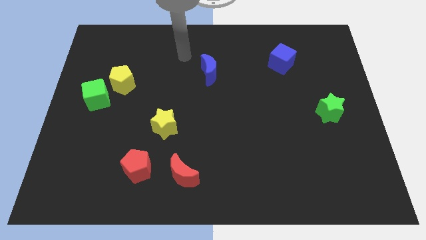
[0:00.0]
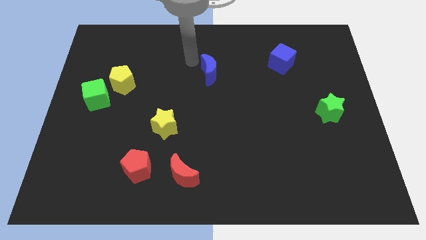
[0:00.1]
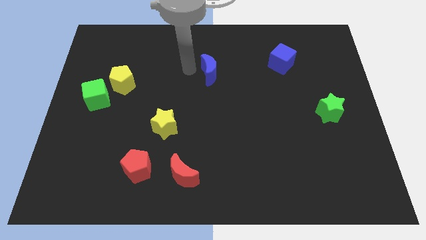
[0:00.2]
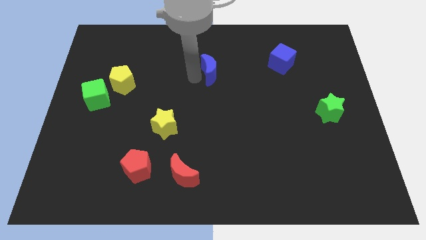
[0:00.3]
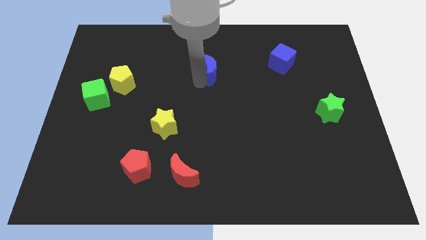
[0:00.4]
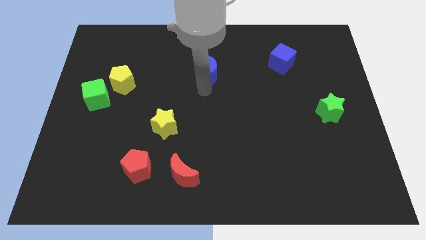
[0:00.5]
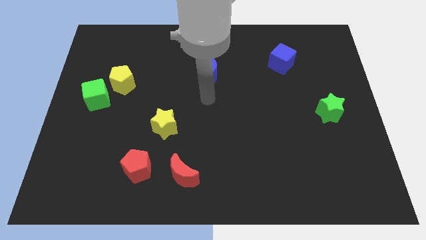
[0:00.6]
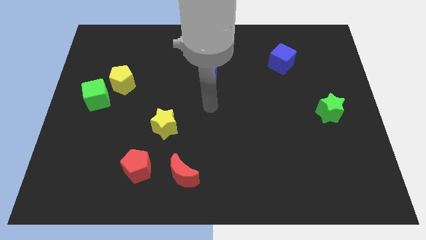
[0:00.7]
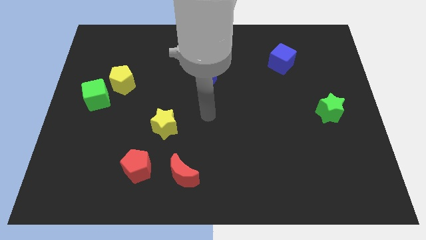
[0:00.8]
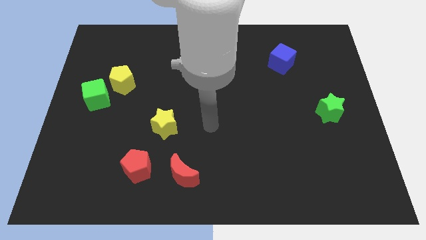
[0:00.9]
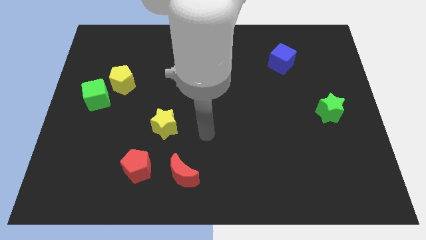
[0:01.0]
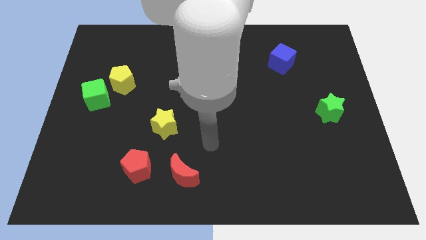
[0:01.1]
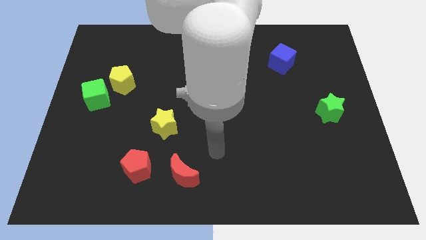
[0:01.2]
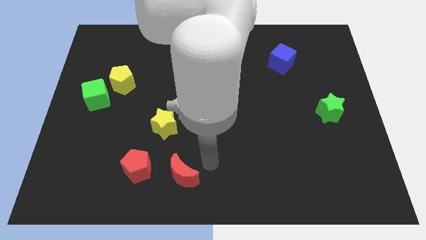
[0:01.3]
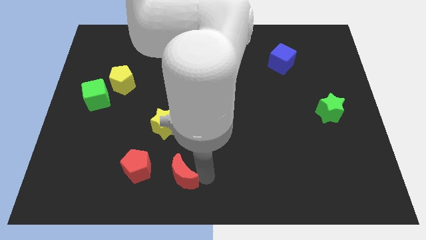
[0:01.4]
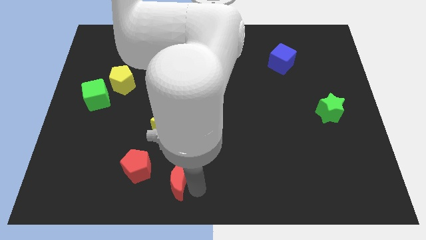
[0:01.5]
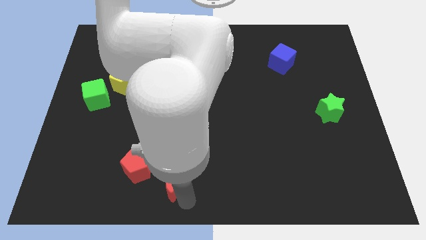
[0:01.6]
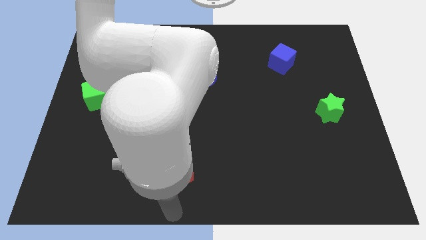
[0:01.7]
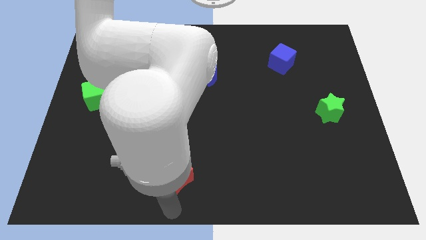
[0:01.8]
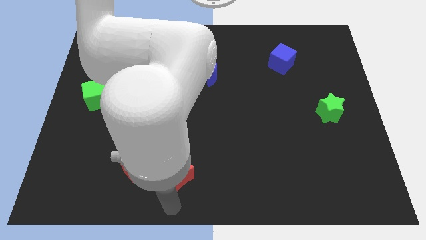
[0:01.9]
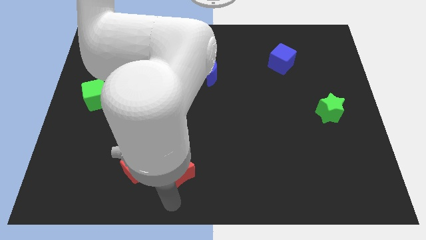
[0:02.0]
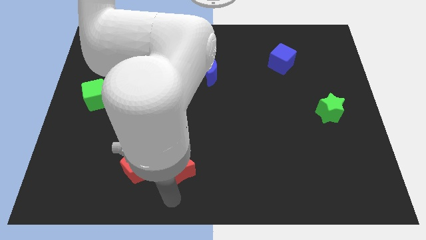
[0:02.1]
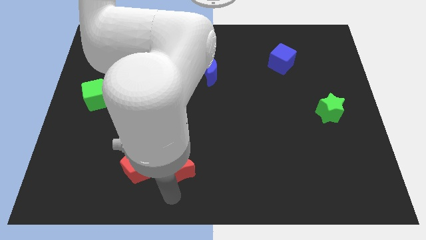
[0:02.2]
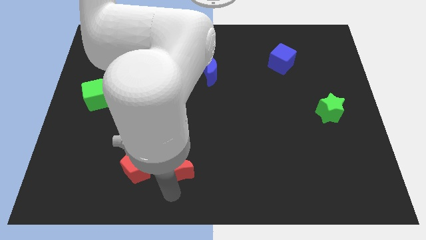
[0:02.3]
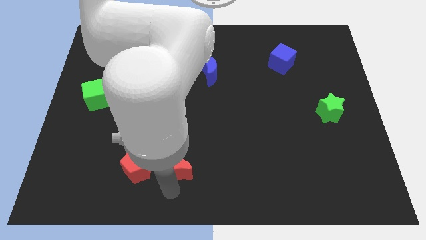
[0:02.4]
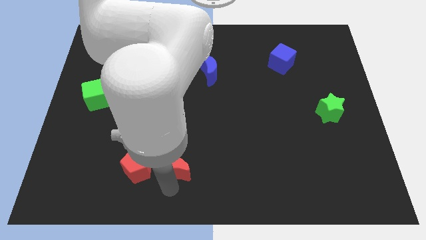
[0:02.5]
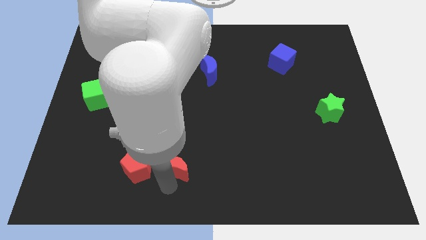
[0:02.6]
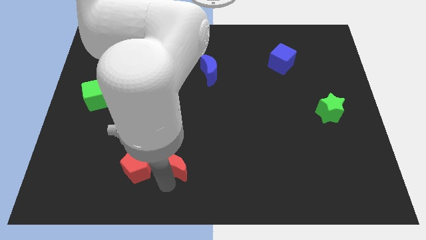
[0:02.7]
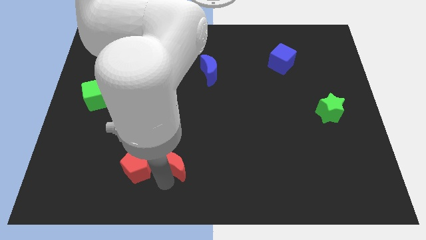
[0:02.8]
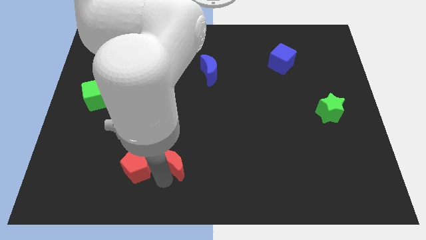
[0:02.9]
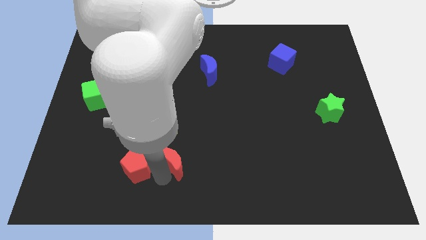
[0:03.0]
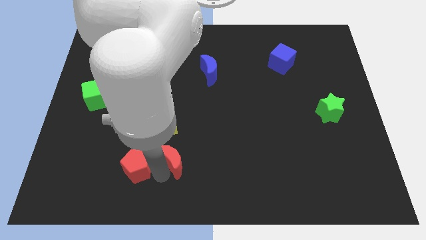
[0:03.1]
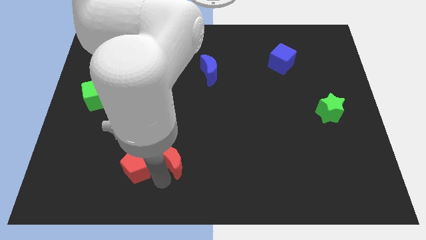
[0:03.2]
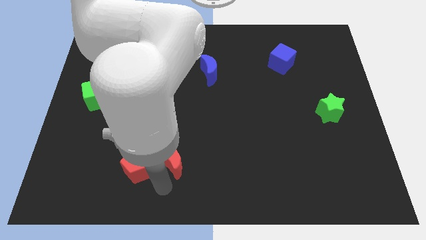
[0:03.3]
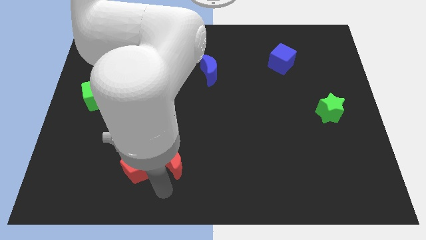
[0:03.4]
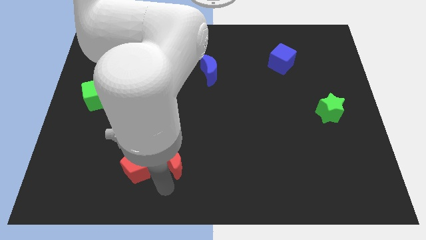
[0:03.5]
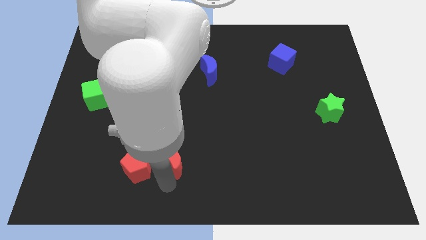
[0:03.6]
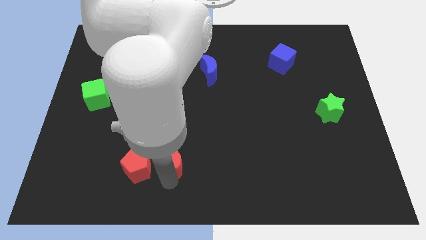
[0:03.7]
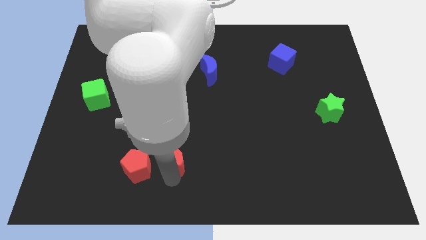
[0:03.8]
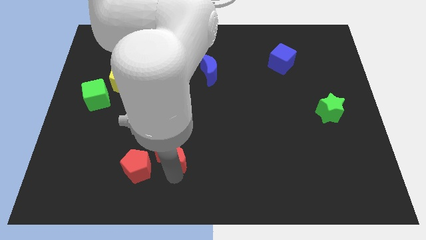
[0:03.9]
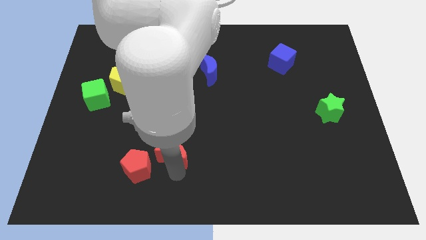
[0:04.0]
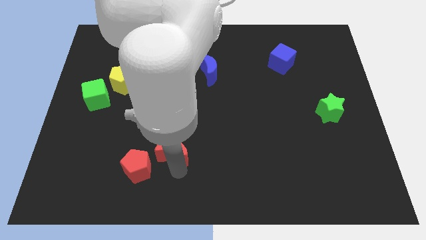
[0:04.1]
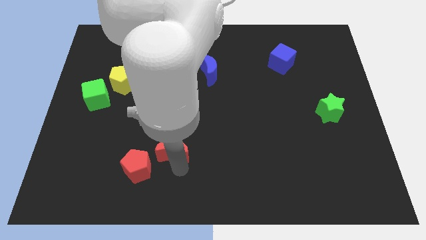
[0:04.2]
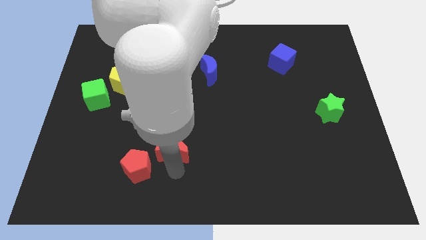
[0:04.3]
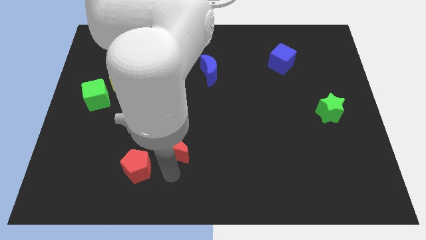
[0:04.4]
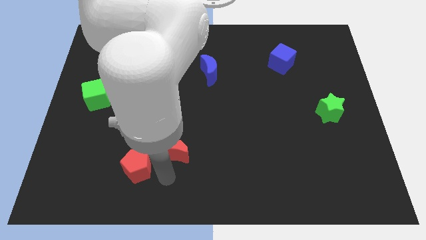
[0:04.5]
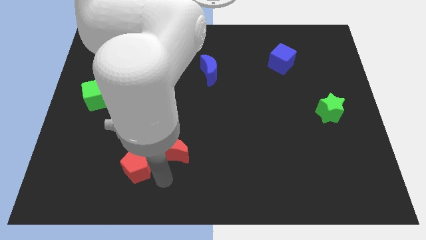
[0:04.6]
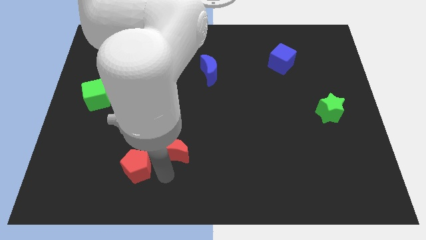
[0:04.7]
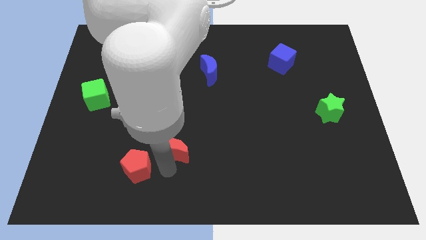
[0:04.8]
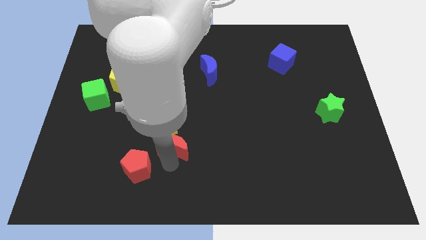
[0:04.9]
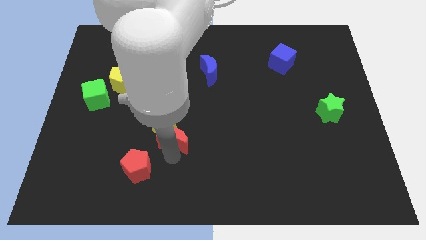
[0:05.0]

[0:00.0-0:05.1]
slide the red moon slightly up

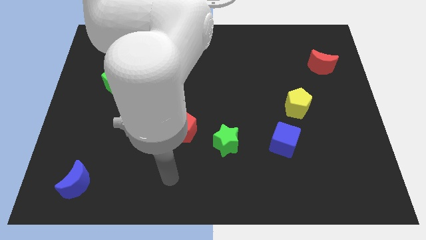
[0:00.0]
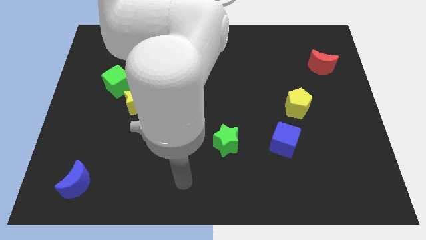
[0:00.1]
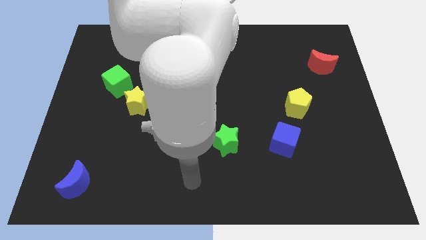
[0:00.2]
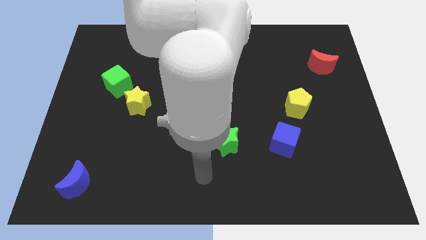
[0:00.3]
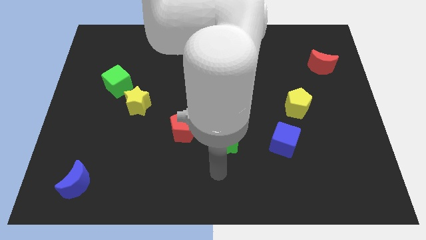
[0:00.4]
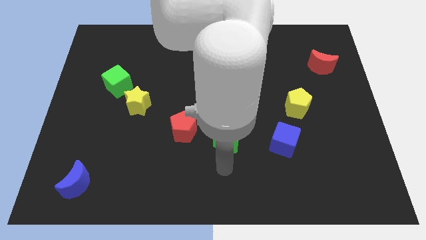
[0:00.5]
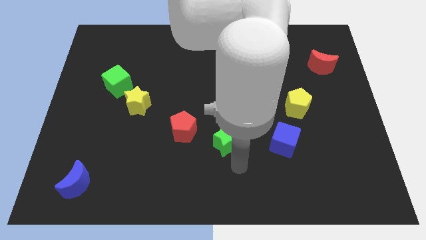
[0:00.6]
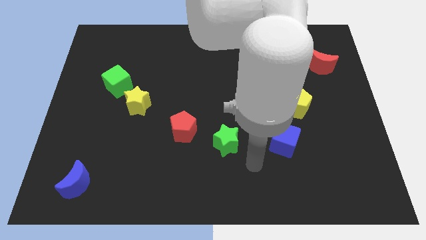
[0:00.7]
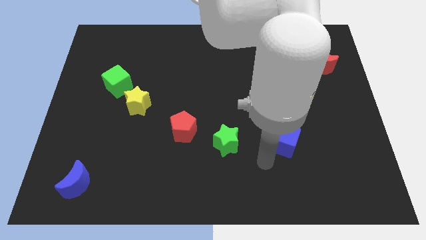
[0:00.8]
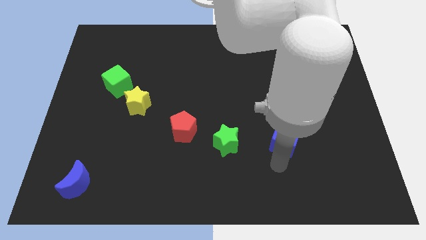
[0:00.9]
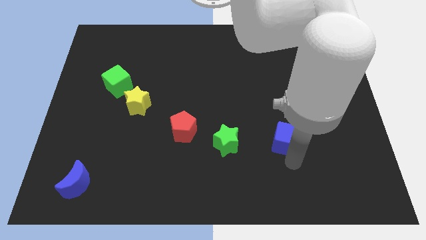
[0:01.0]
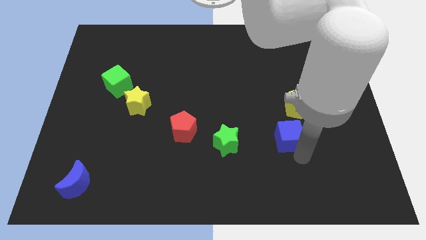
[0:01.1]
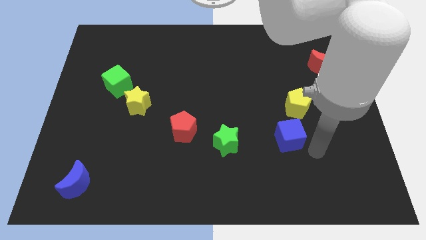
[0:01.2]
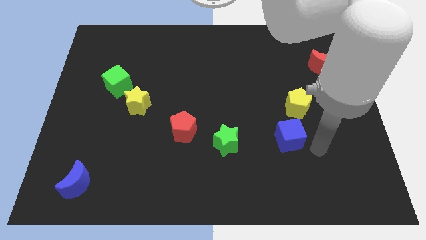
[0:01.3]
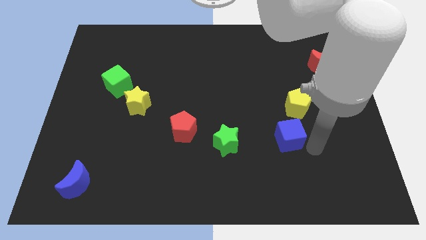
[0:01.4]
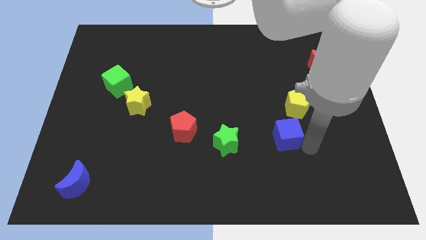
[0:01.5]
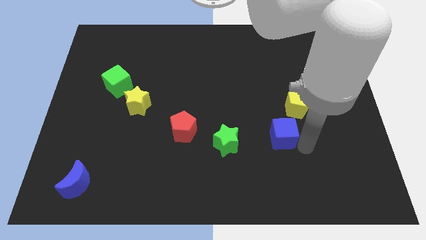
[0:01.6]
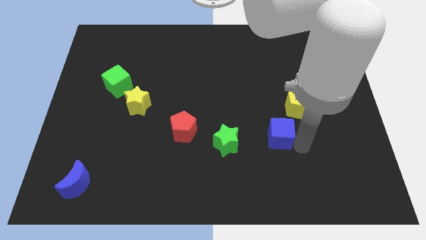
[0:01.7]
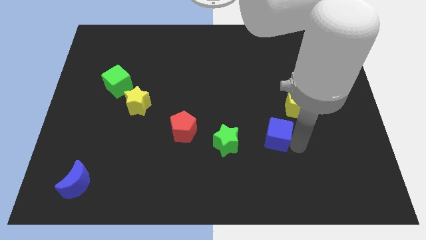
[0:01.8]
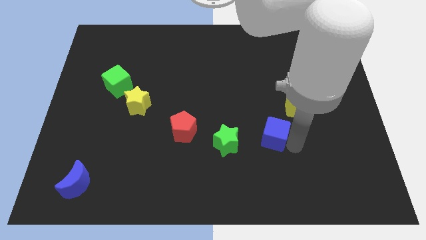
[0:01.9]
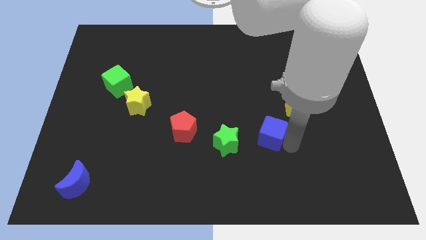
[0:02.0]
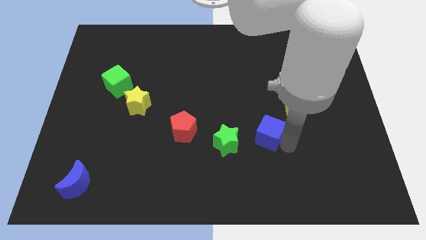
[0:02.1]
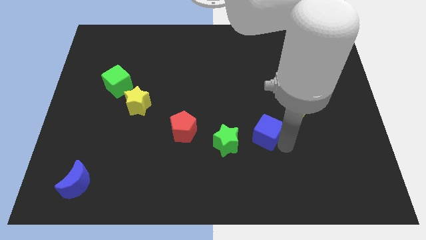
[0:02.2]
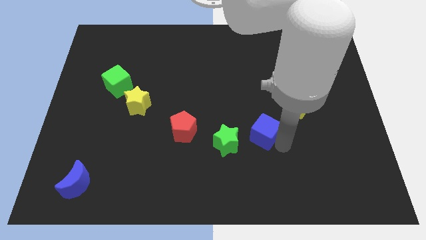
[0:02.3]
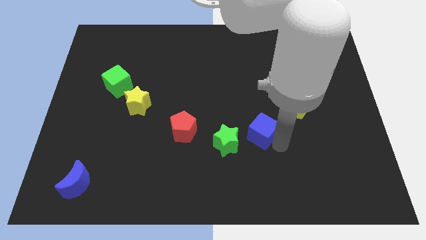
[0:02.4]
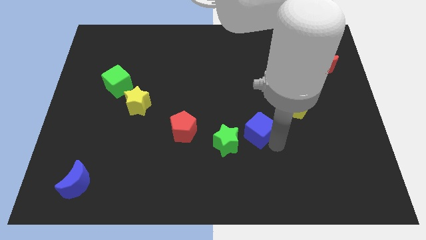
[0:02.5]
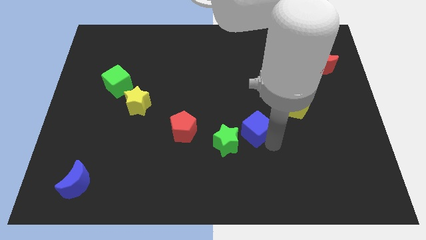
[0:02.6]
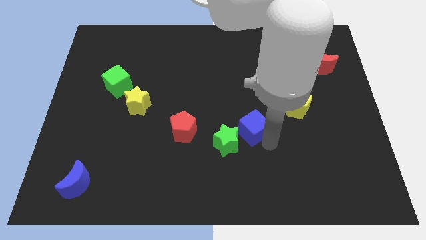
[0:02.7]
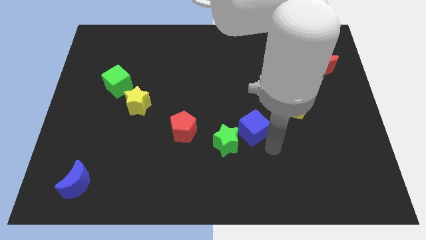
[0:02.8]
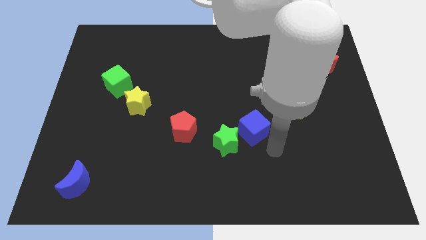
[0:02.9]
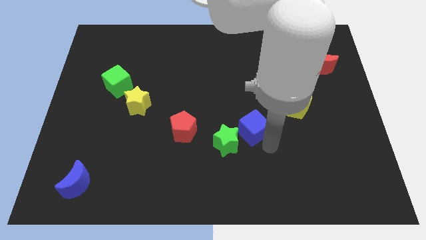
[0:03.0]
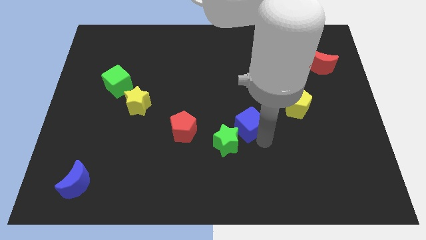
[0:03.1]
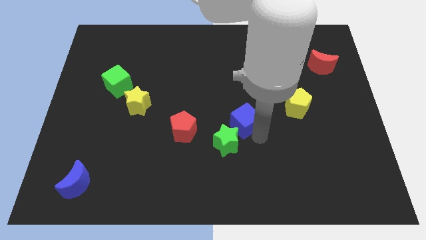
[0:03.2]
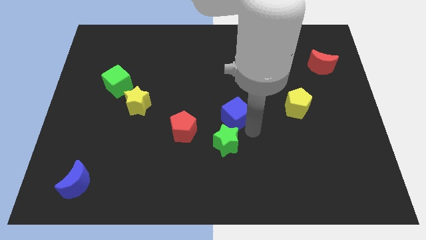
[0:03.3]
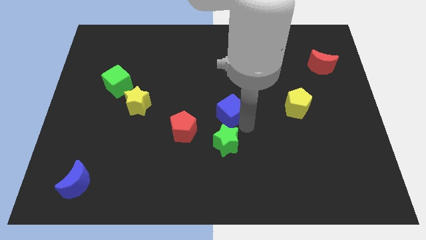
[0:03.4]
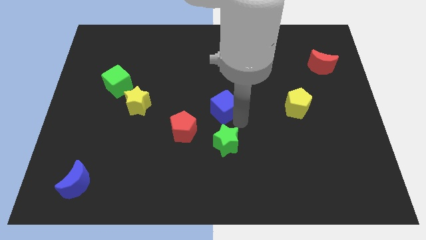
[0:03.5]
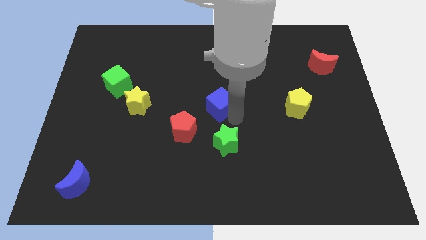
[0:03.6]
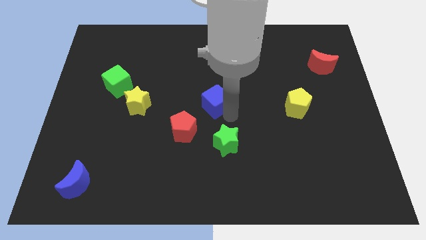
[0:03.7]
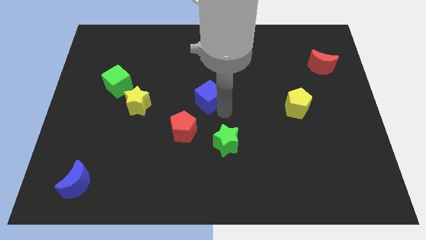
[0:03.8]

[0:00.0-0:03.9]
move the blue cube up and to the left
